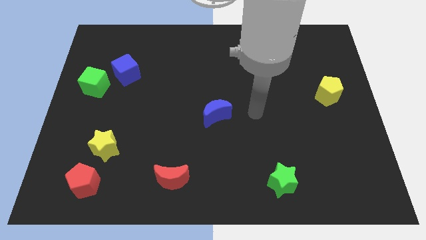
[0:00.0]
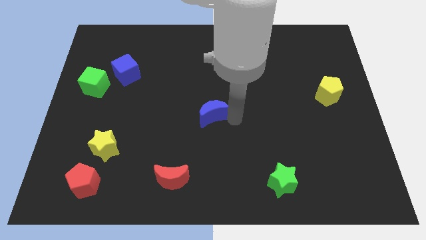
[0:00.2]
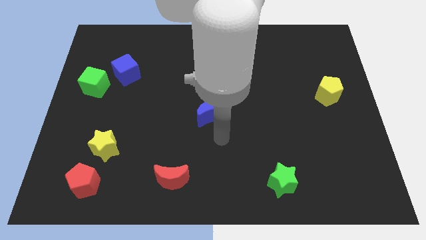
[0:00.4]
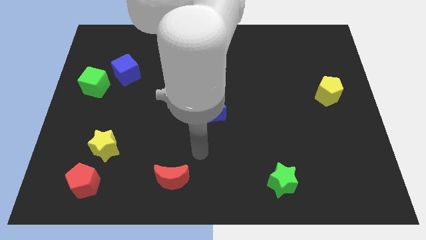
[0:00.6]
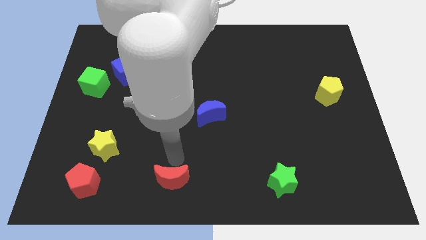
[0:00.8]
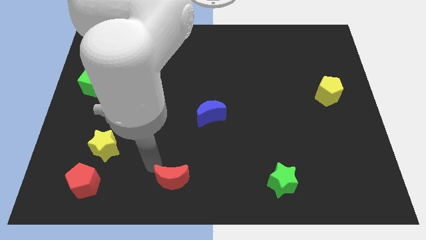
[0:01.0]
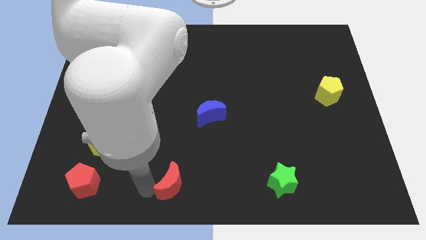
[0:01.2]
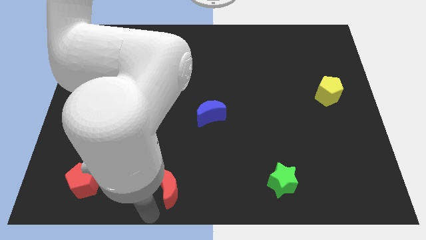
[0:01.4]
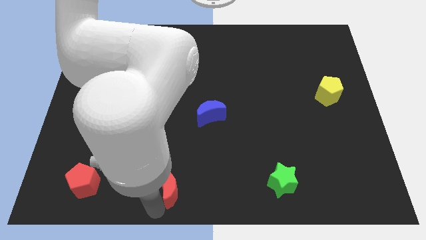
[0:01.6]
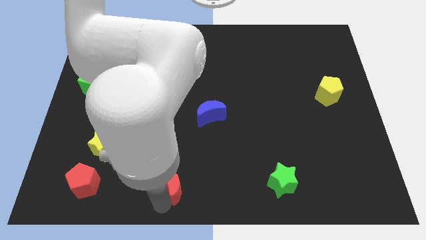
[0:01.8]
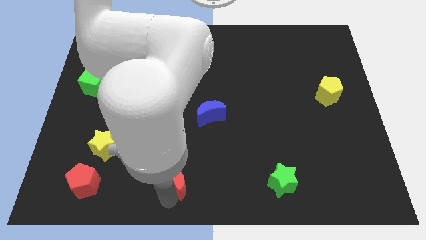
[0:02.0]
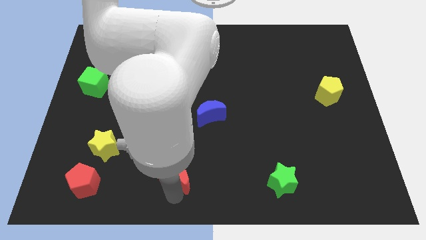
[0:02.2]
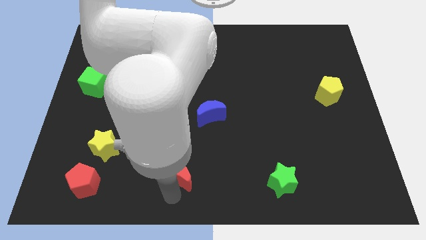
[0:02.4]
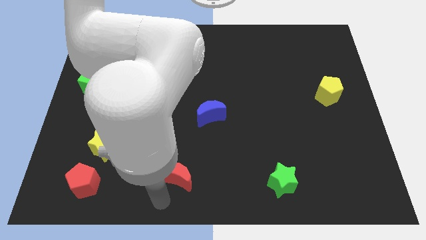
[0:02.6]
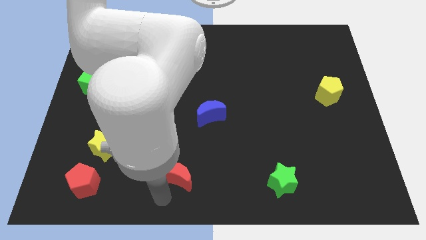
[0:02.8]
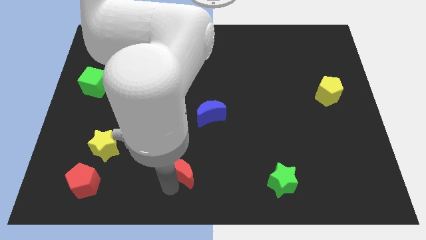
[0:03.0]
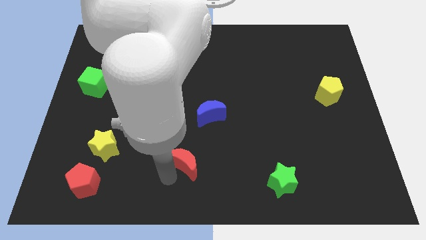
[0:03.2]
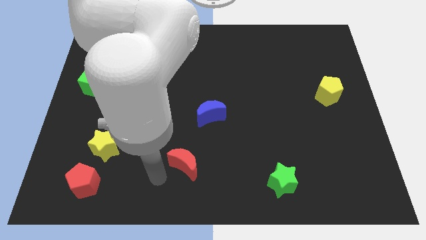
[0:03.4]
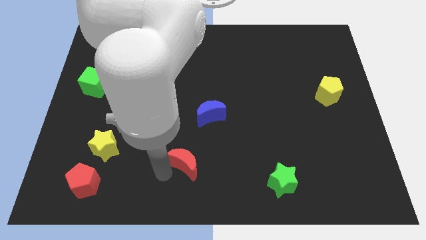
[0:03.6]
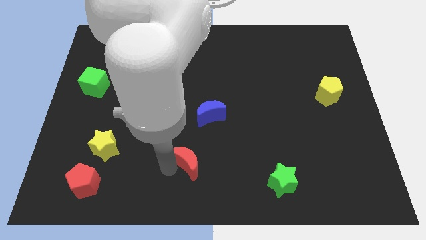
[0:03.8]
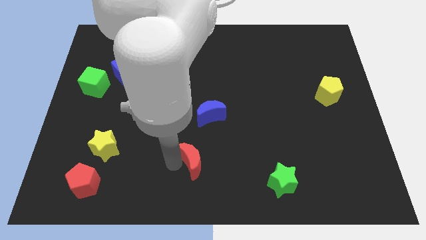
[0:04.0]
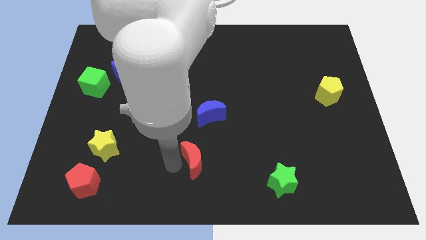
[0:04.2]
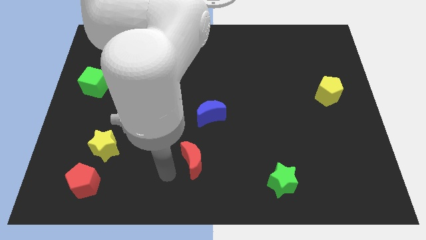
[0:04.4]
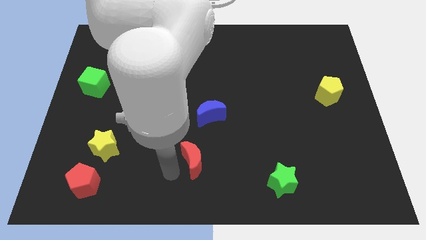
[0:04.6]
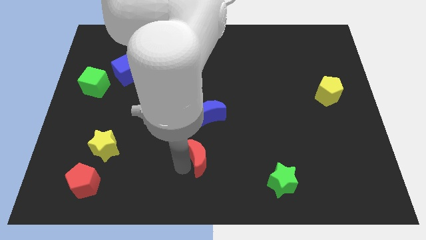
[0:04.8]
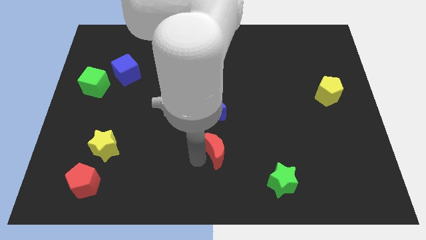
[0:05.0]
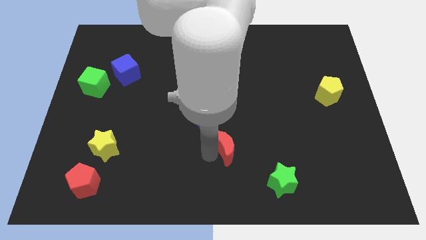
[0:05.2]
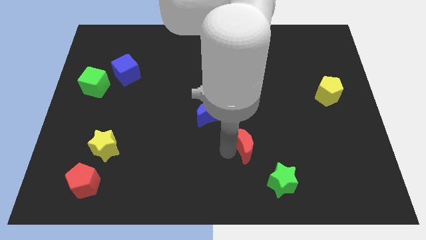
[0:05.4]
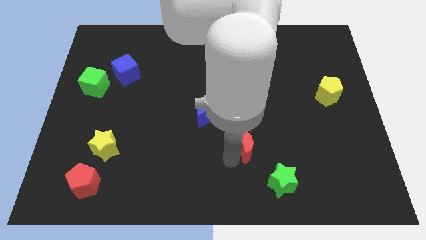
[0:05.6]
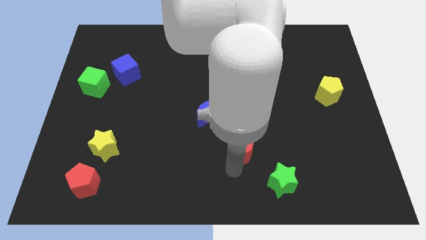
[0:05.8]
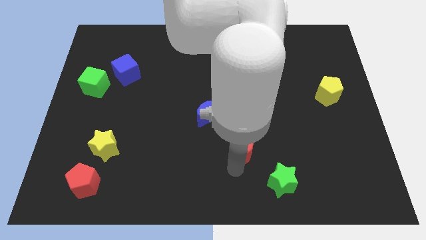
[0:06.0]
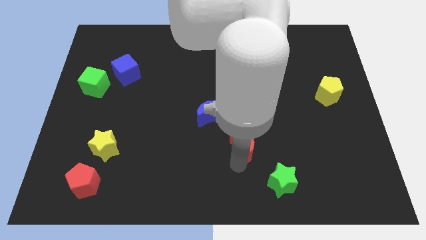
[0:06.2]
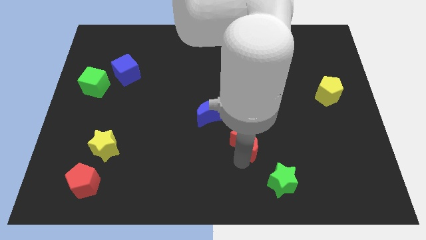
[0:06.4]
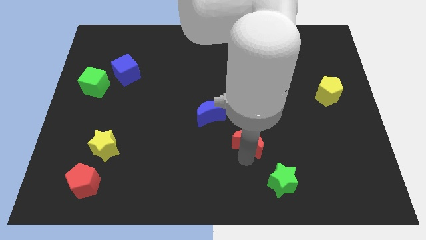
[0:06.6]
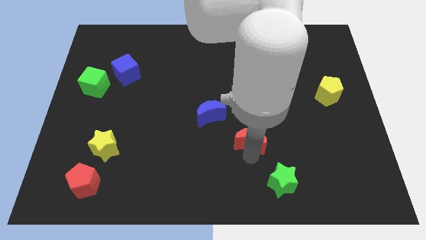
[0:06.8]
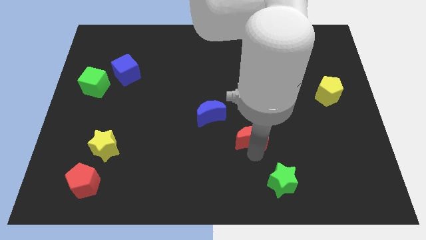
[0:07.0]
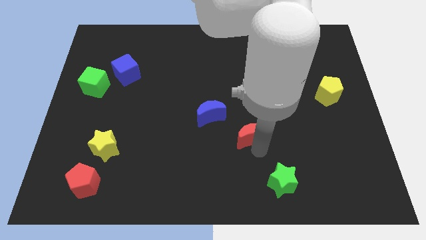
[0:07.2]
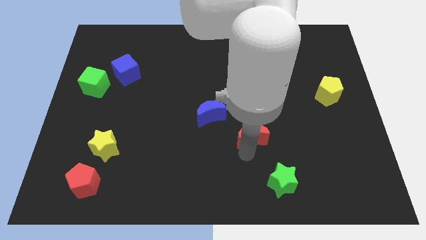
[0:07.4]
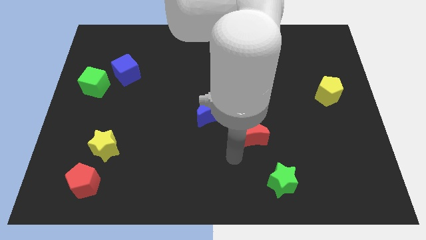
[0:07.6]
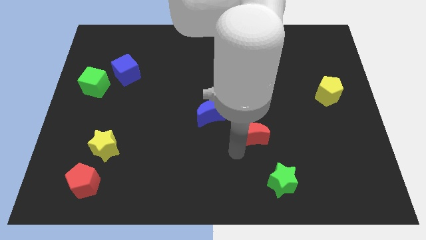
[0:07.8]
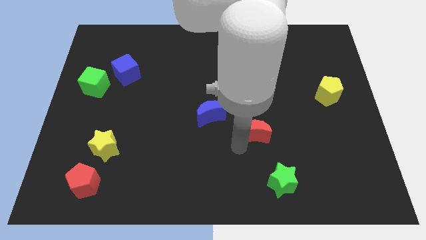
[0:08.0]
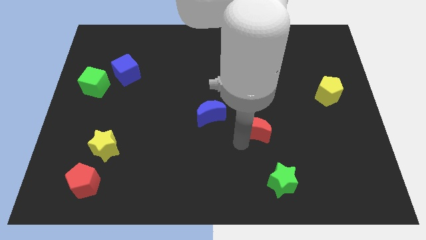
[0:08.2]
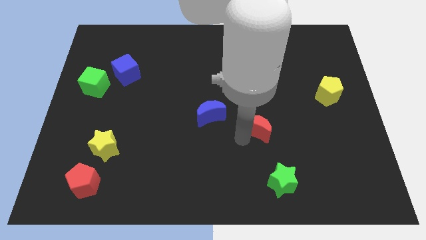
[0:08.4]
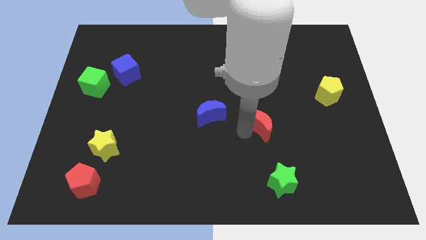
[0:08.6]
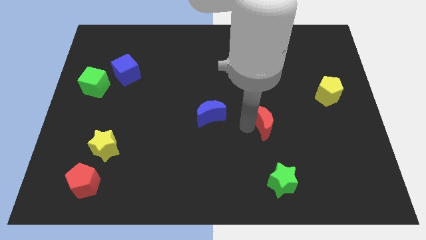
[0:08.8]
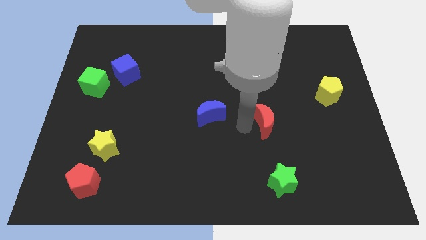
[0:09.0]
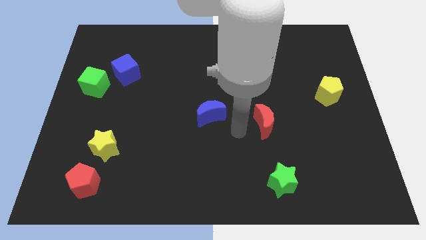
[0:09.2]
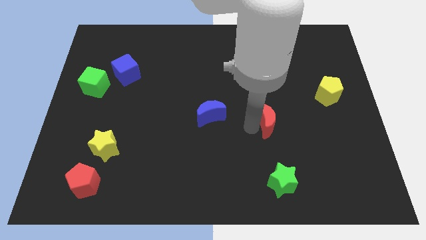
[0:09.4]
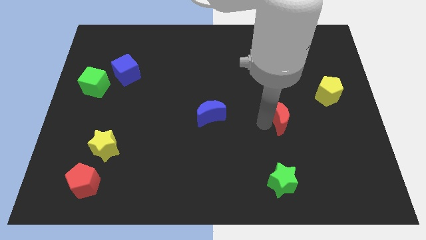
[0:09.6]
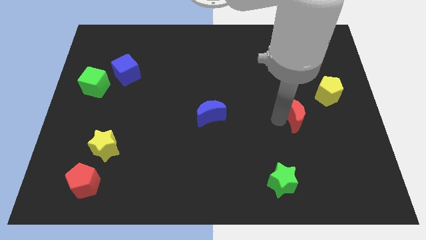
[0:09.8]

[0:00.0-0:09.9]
slide the red moon to the bottom left side of the yellow pentagon

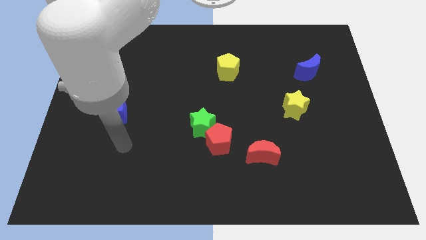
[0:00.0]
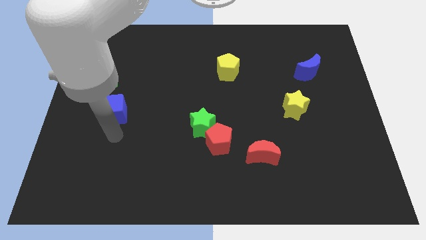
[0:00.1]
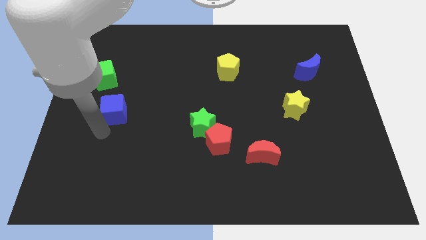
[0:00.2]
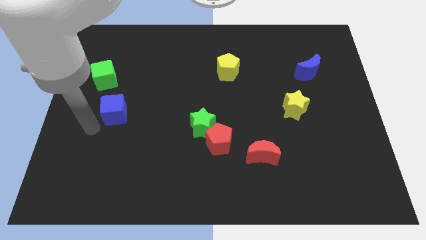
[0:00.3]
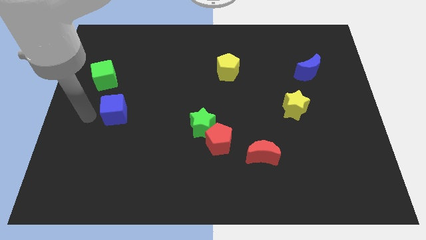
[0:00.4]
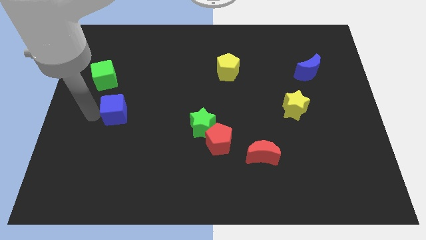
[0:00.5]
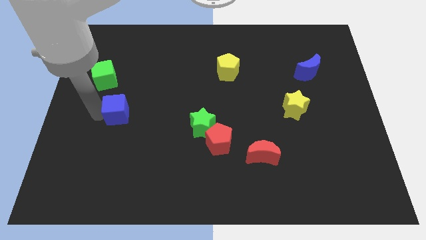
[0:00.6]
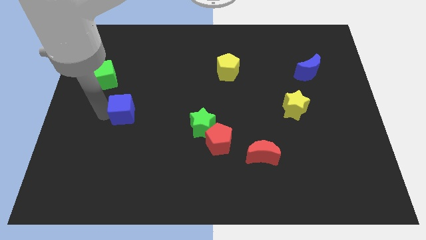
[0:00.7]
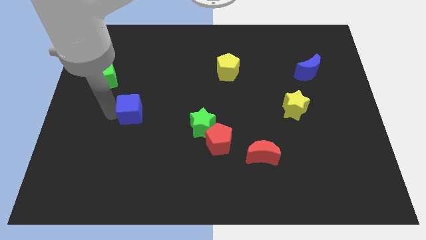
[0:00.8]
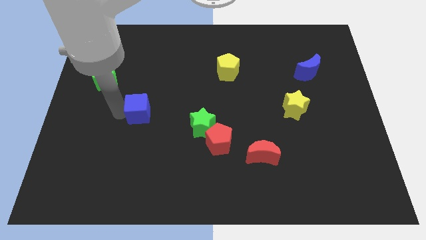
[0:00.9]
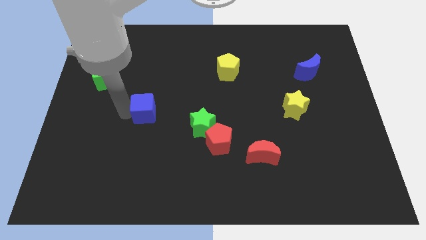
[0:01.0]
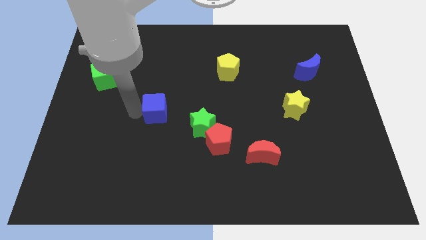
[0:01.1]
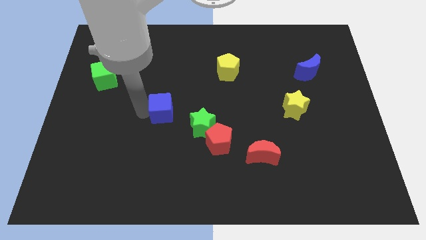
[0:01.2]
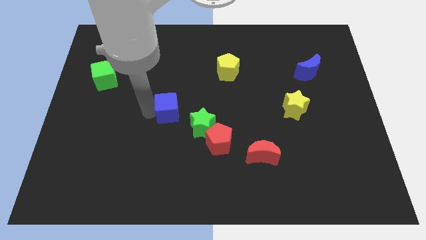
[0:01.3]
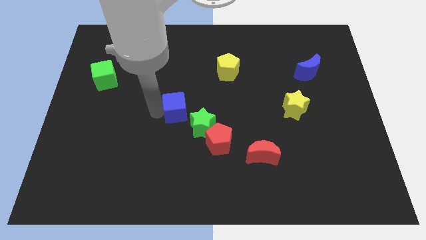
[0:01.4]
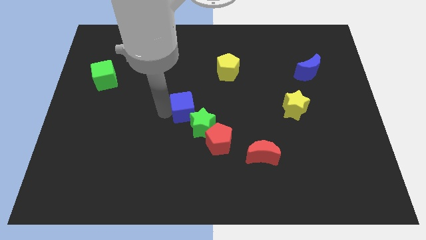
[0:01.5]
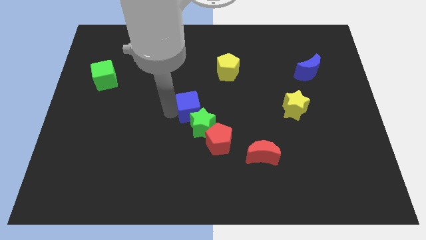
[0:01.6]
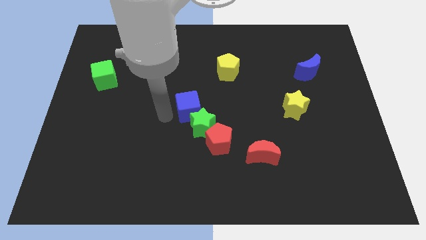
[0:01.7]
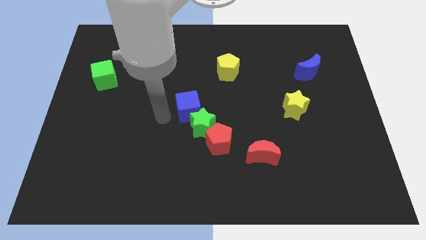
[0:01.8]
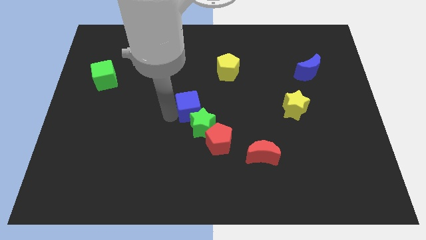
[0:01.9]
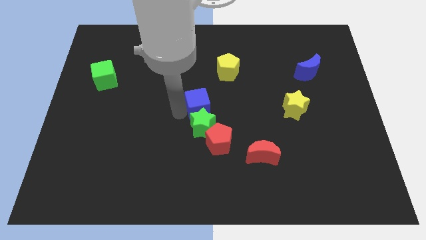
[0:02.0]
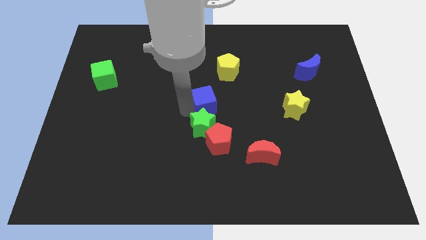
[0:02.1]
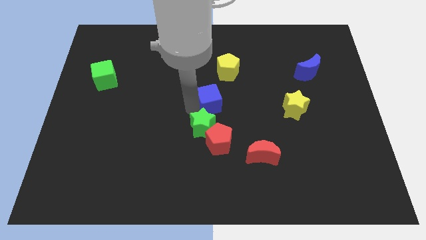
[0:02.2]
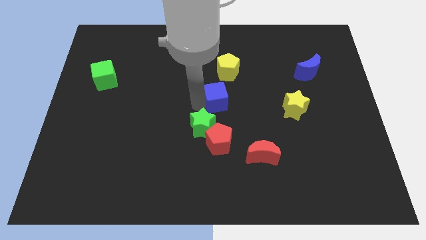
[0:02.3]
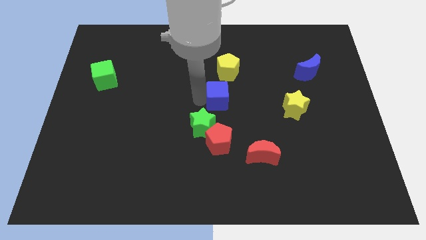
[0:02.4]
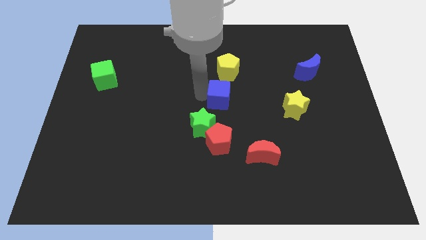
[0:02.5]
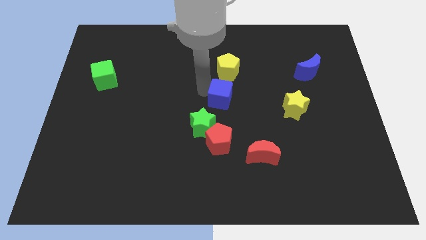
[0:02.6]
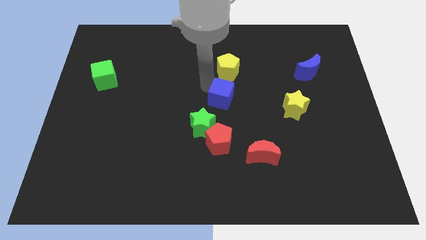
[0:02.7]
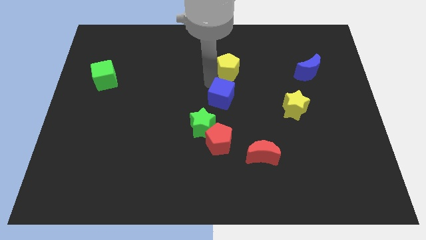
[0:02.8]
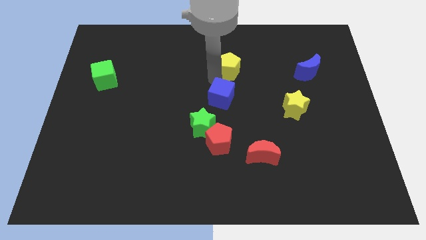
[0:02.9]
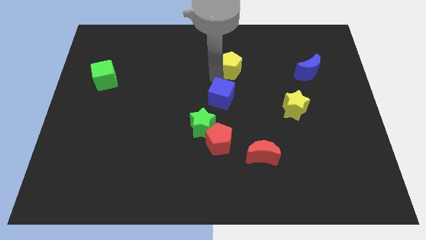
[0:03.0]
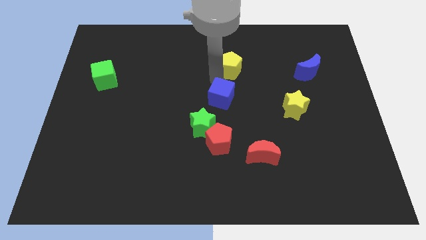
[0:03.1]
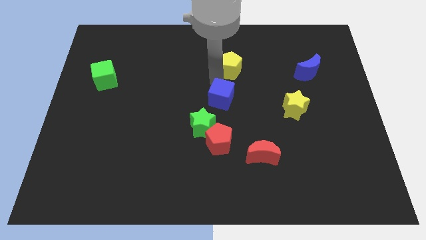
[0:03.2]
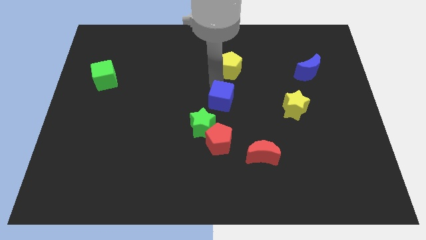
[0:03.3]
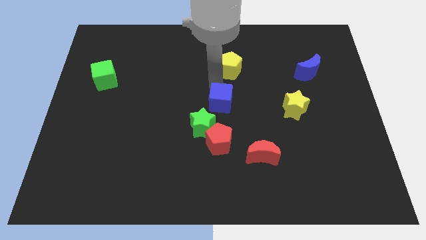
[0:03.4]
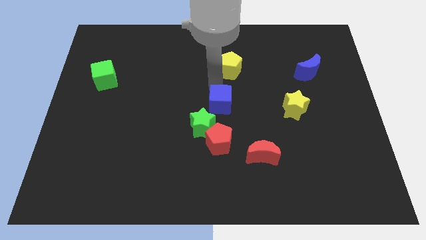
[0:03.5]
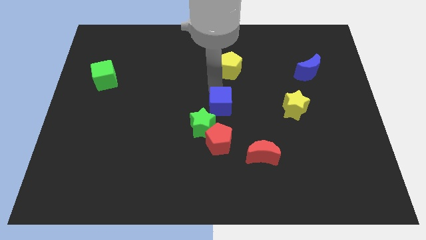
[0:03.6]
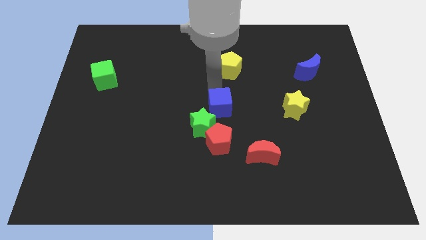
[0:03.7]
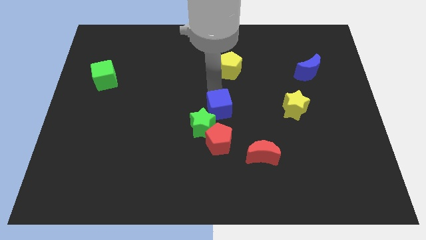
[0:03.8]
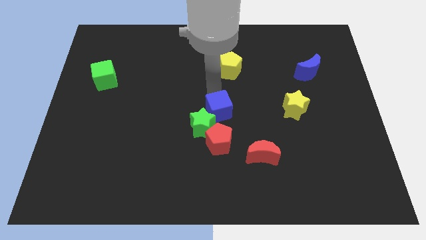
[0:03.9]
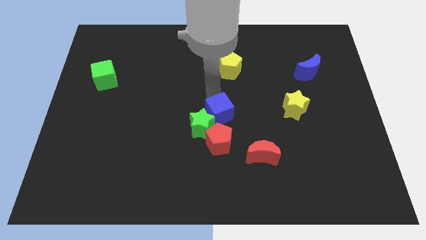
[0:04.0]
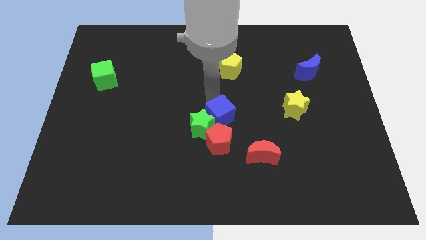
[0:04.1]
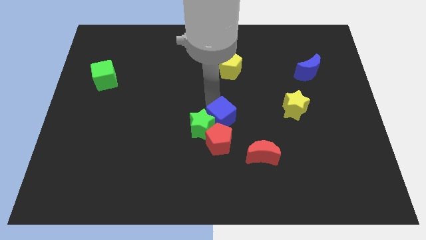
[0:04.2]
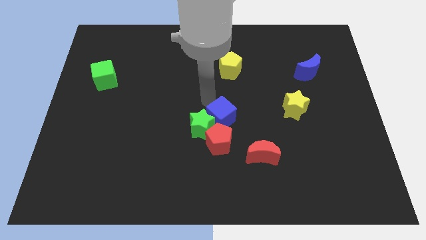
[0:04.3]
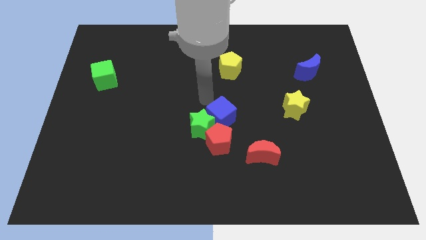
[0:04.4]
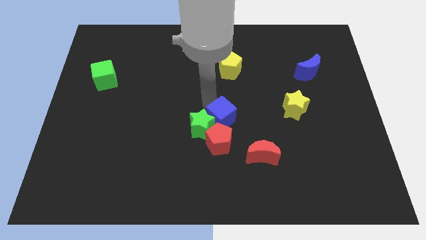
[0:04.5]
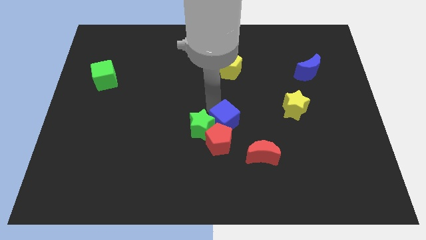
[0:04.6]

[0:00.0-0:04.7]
push the blue cube diagonally up and to the left of the red moon
